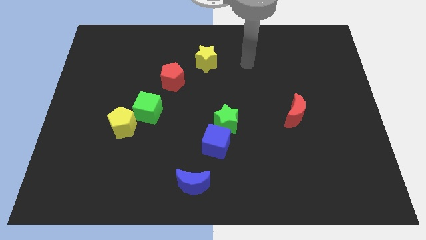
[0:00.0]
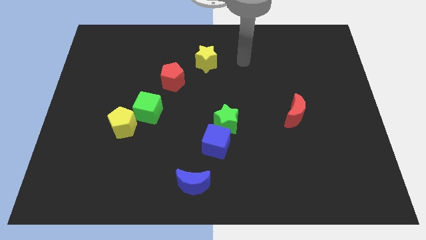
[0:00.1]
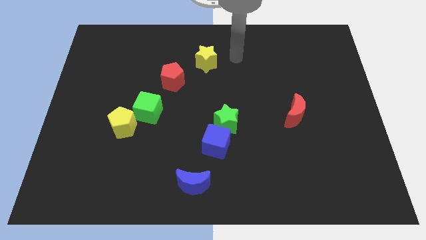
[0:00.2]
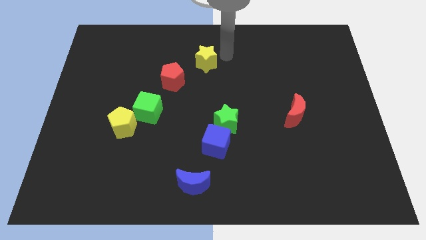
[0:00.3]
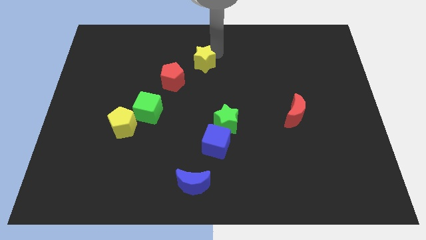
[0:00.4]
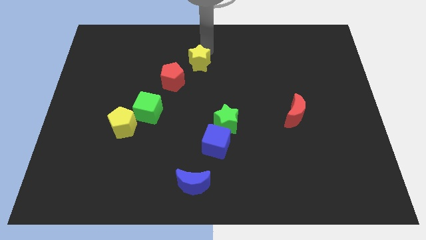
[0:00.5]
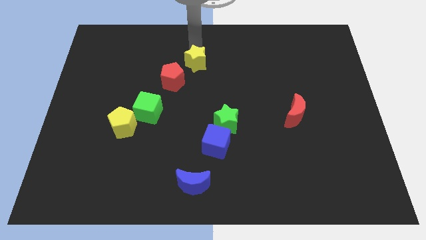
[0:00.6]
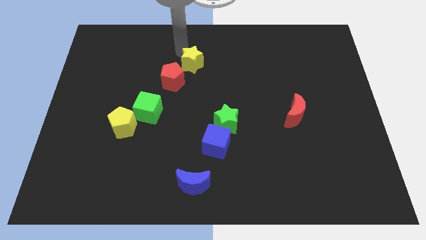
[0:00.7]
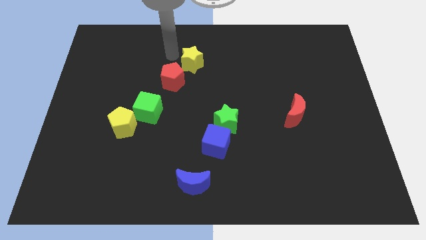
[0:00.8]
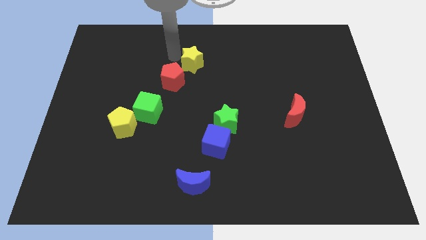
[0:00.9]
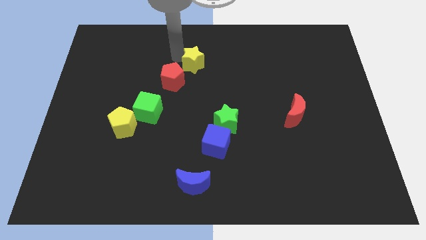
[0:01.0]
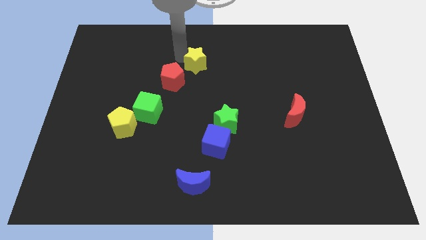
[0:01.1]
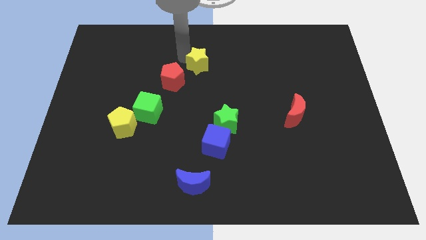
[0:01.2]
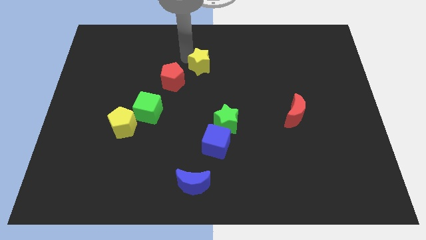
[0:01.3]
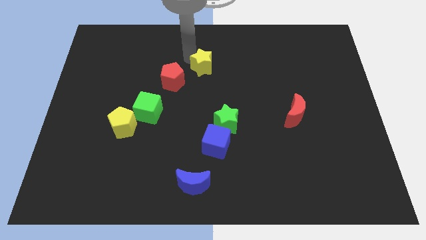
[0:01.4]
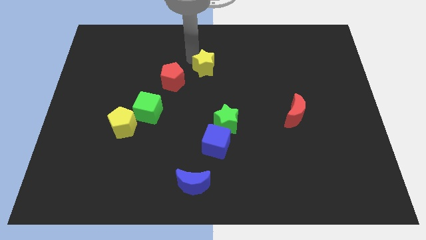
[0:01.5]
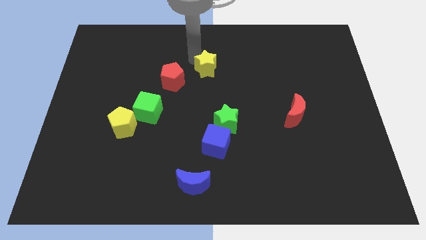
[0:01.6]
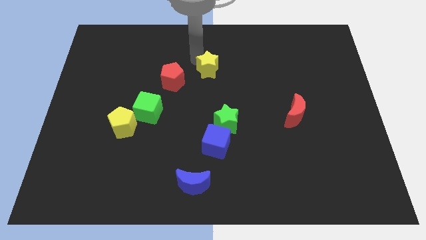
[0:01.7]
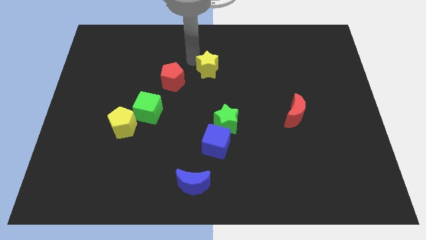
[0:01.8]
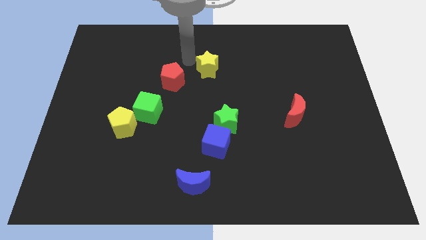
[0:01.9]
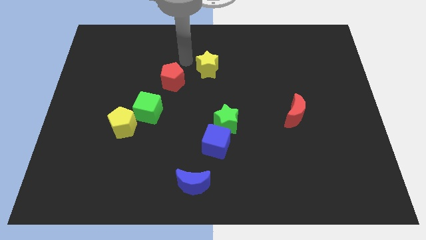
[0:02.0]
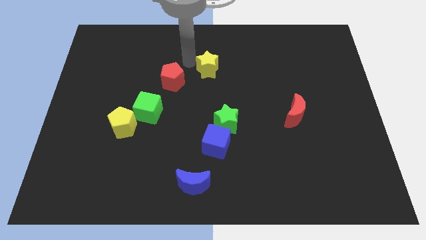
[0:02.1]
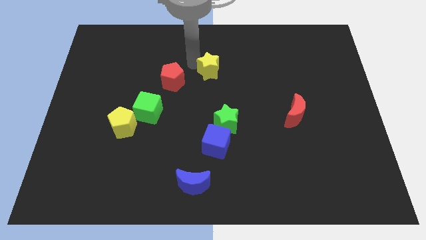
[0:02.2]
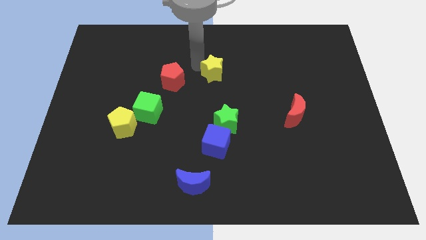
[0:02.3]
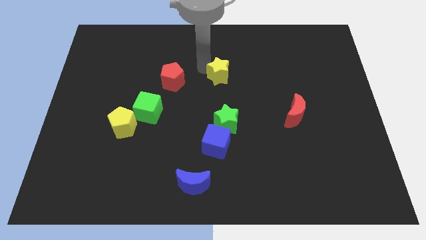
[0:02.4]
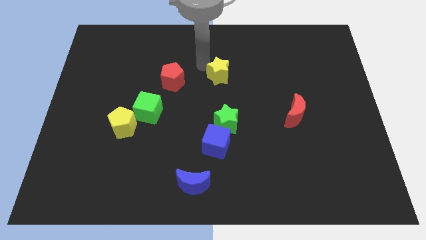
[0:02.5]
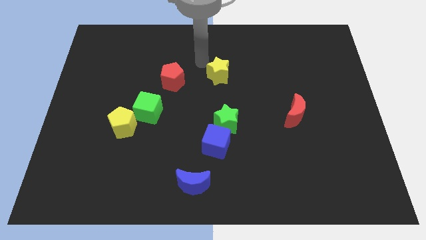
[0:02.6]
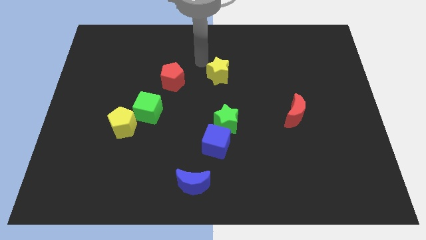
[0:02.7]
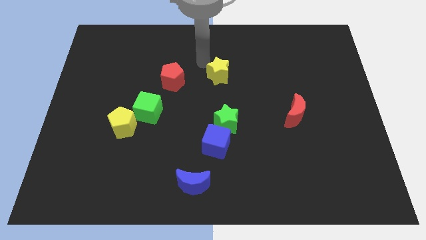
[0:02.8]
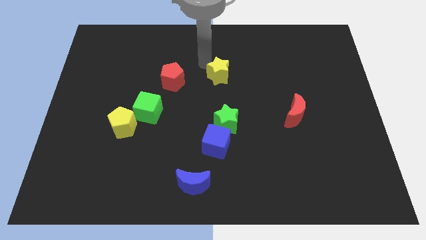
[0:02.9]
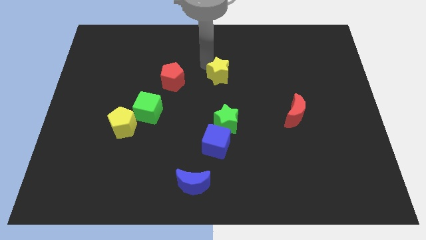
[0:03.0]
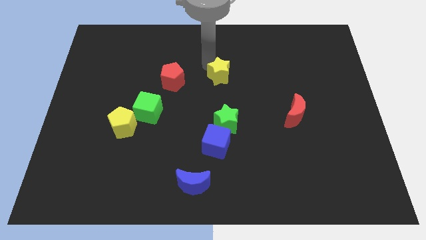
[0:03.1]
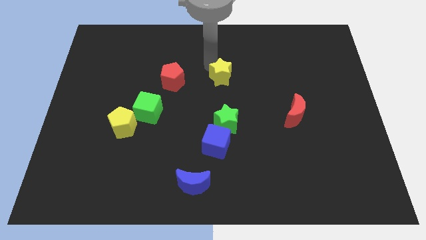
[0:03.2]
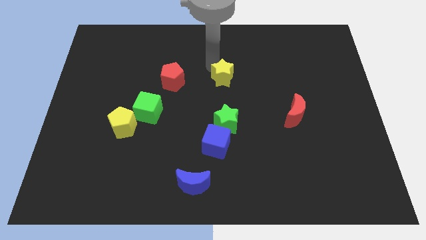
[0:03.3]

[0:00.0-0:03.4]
push the yellow star slightly down and to the right

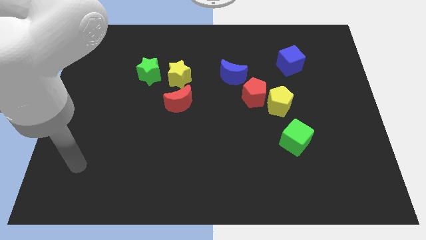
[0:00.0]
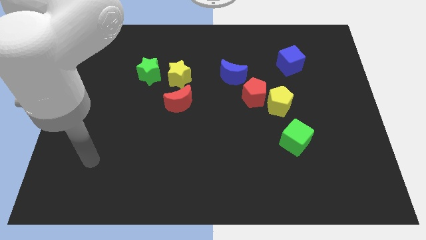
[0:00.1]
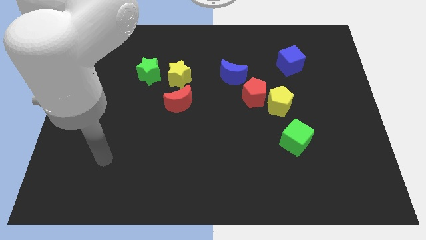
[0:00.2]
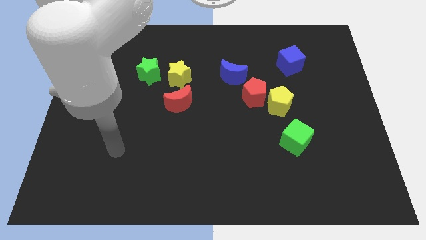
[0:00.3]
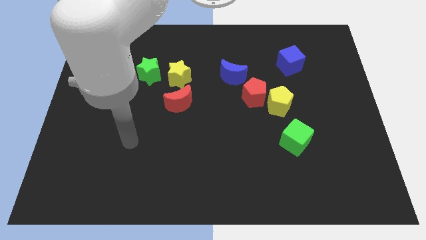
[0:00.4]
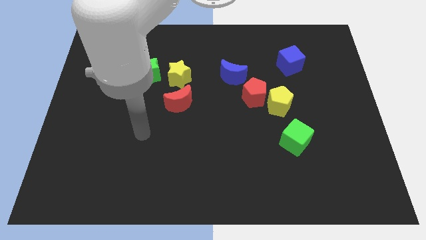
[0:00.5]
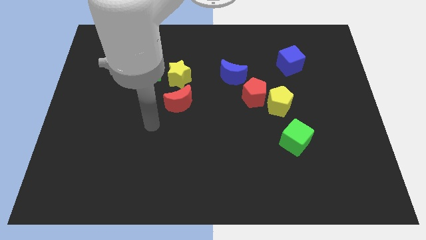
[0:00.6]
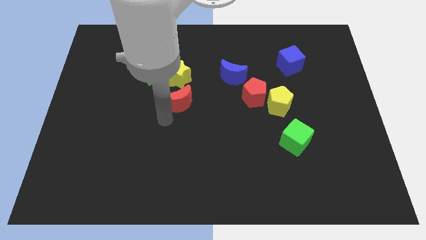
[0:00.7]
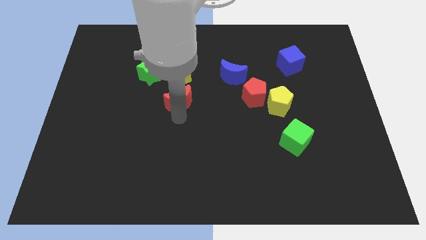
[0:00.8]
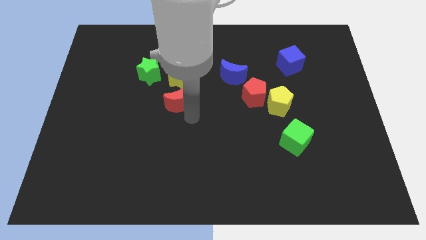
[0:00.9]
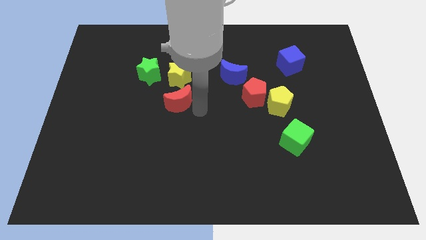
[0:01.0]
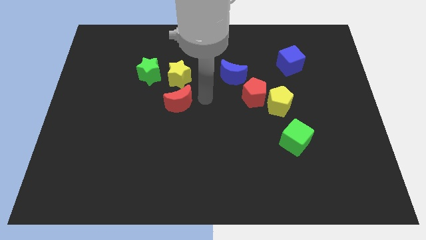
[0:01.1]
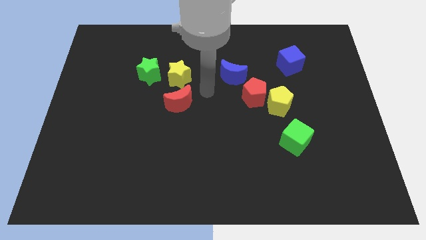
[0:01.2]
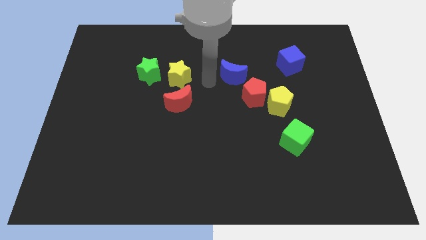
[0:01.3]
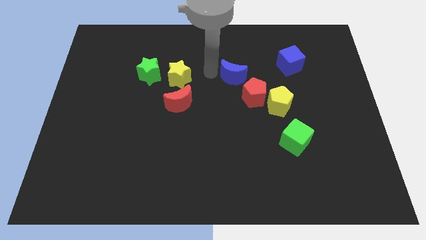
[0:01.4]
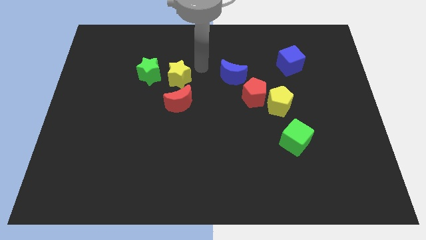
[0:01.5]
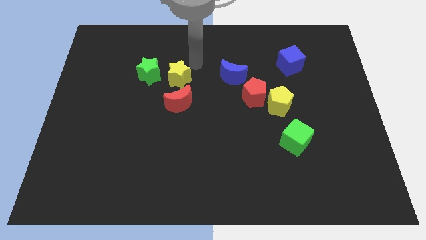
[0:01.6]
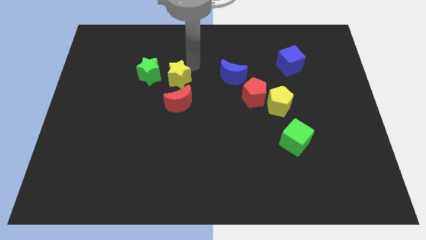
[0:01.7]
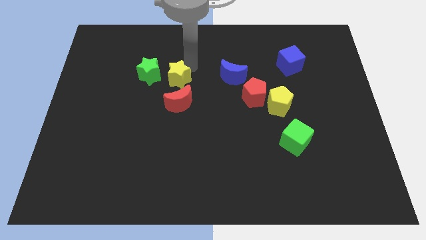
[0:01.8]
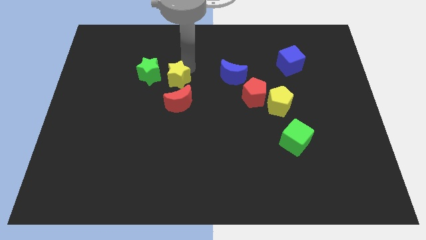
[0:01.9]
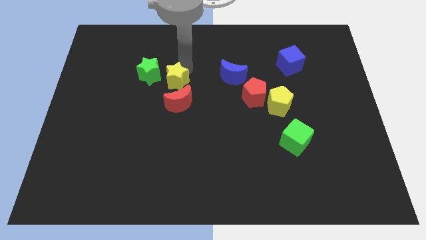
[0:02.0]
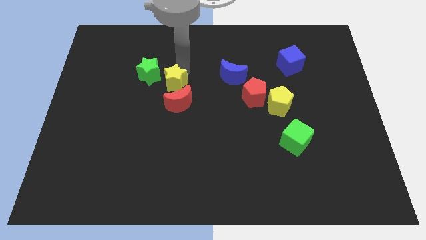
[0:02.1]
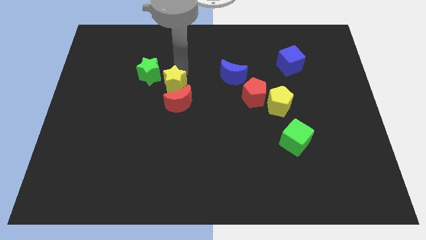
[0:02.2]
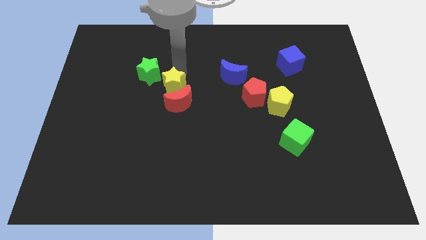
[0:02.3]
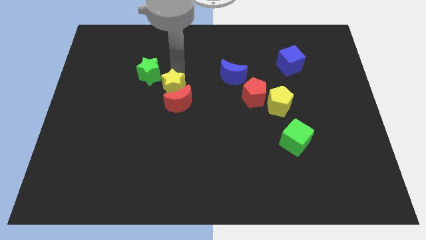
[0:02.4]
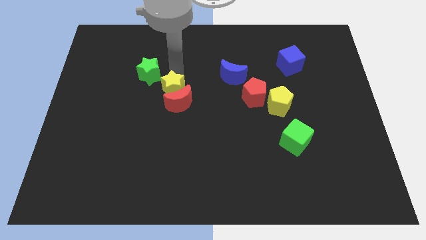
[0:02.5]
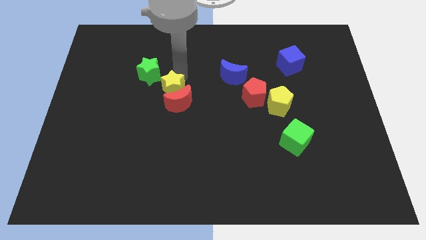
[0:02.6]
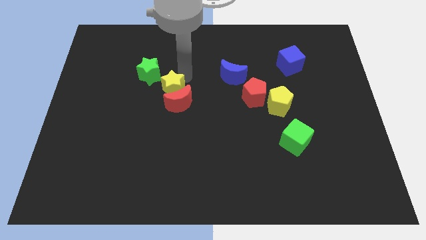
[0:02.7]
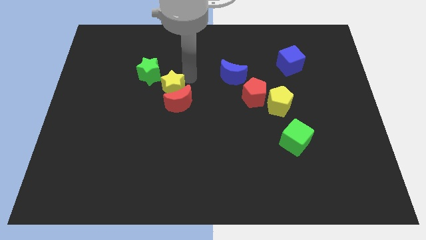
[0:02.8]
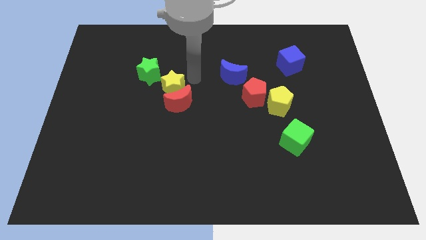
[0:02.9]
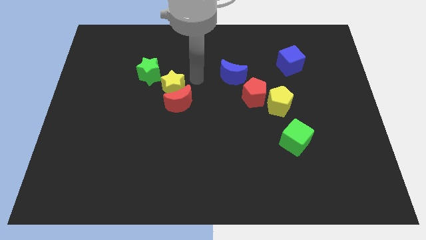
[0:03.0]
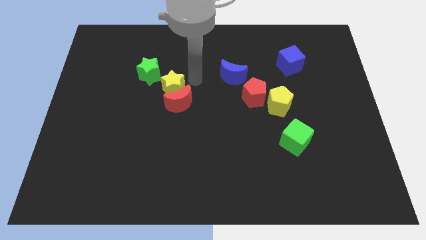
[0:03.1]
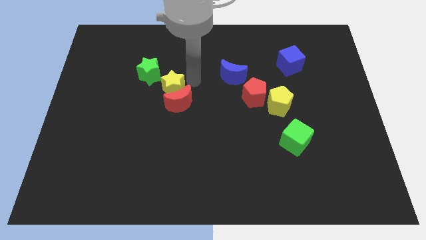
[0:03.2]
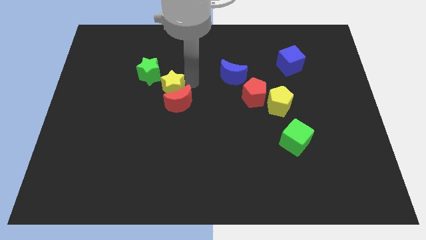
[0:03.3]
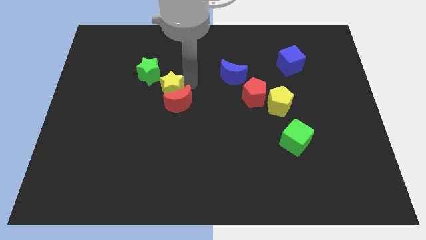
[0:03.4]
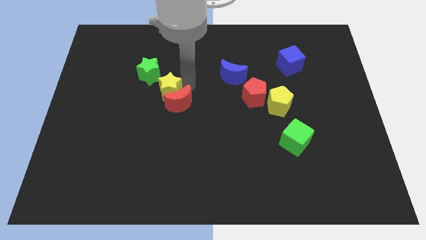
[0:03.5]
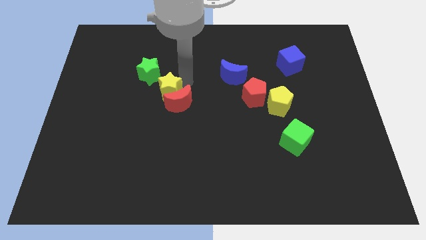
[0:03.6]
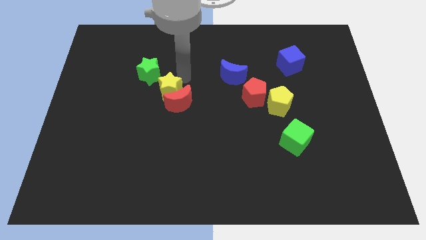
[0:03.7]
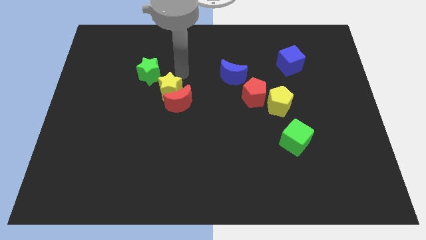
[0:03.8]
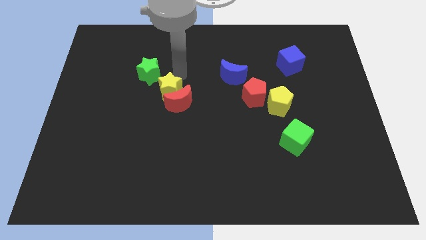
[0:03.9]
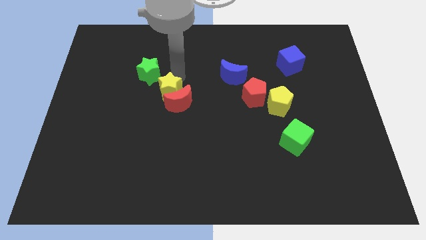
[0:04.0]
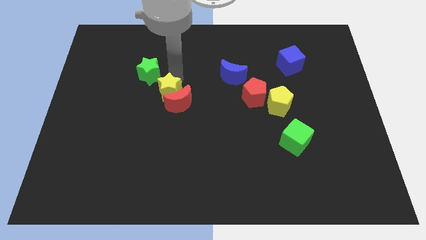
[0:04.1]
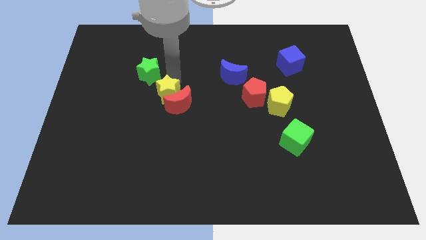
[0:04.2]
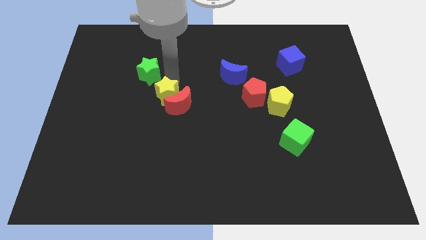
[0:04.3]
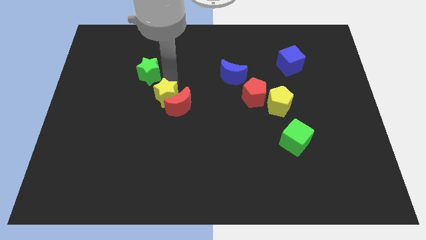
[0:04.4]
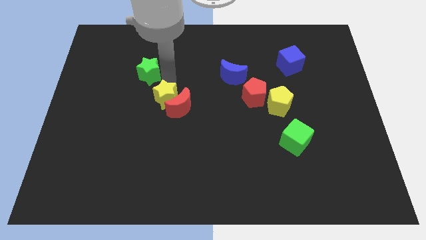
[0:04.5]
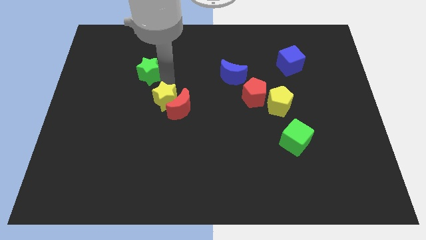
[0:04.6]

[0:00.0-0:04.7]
slide the yellow star downwards a bit

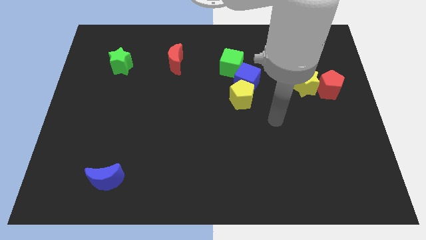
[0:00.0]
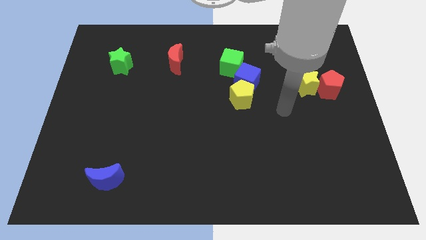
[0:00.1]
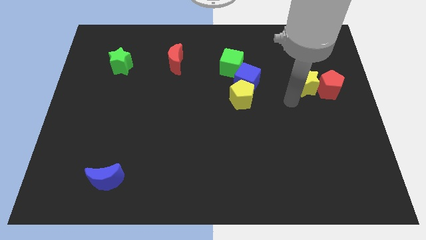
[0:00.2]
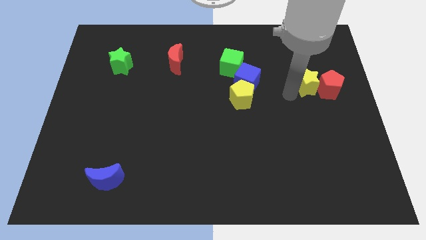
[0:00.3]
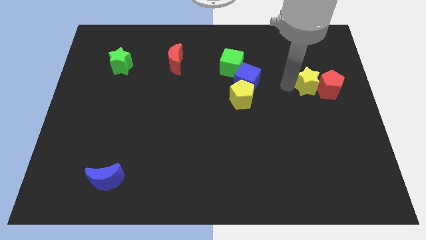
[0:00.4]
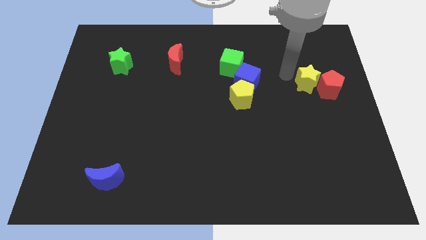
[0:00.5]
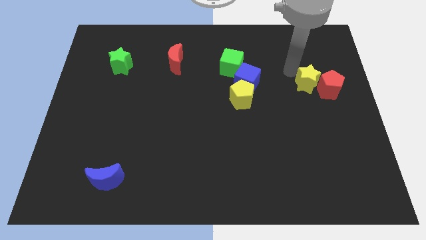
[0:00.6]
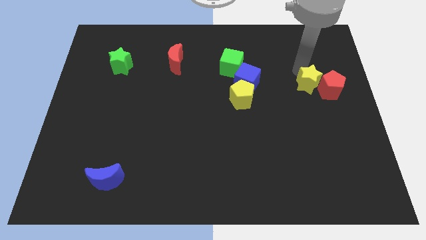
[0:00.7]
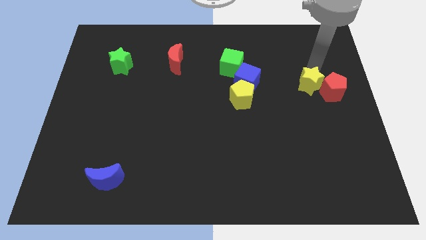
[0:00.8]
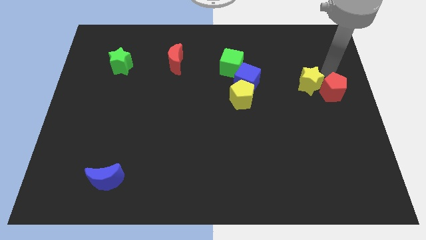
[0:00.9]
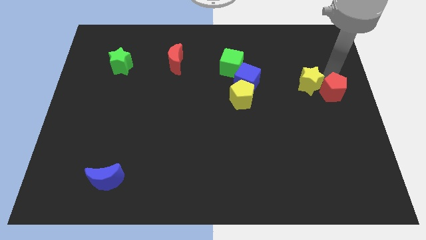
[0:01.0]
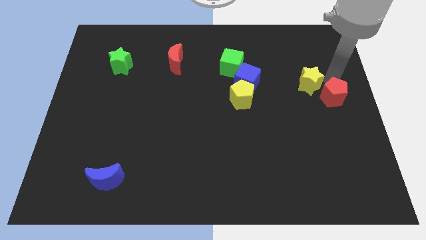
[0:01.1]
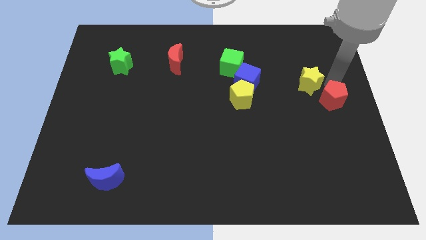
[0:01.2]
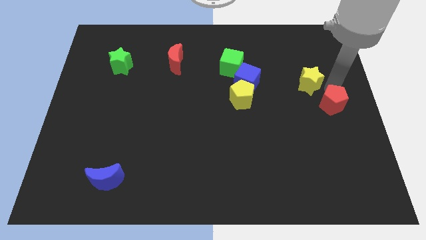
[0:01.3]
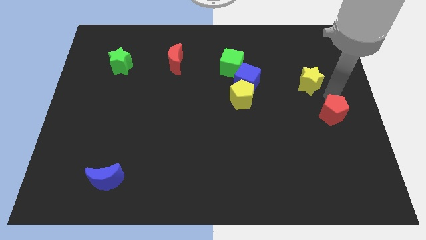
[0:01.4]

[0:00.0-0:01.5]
slightly move the red pentagon downwards
